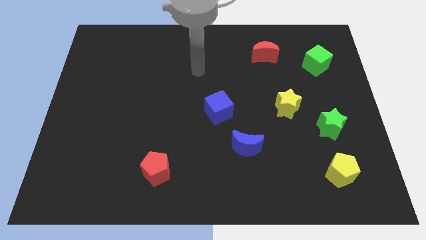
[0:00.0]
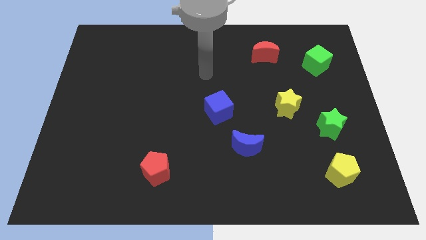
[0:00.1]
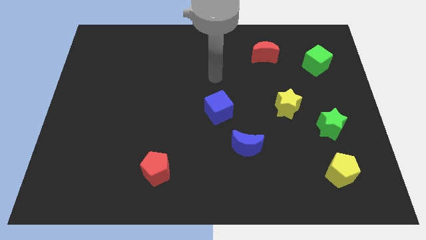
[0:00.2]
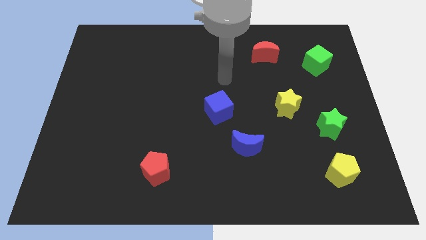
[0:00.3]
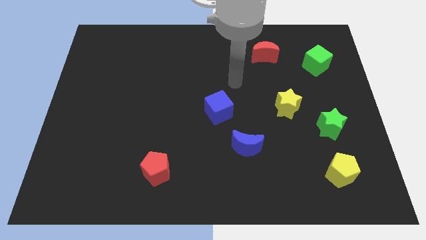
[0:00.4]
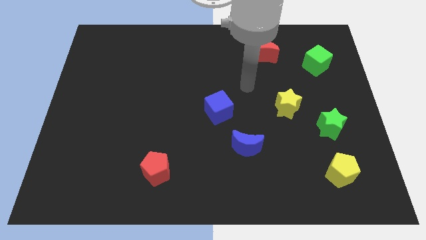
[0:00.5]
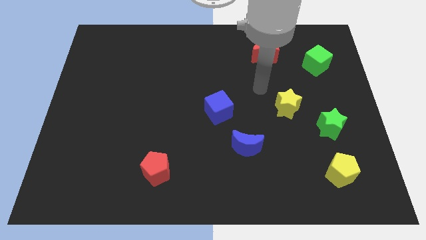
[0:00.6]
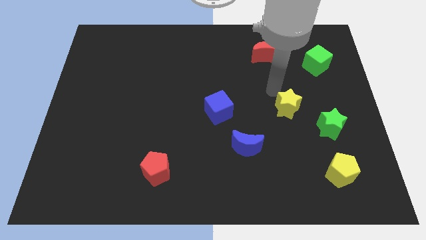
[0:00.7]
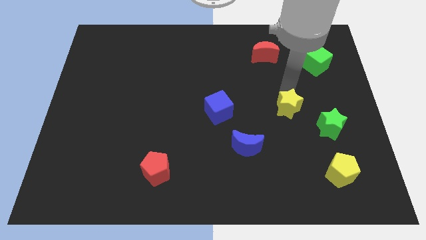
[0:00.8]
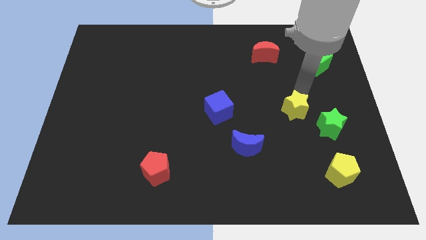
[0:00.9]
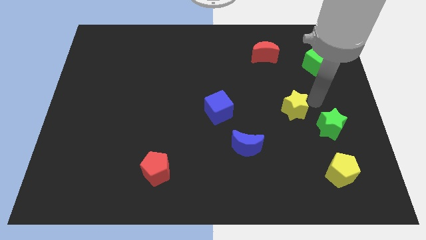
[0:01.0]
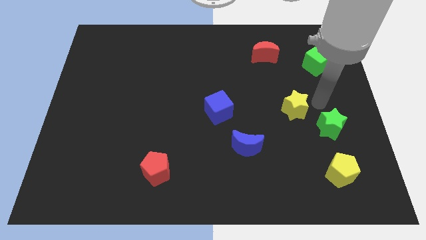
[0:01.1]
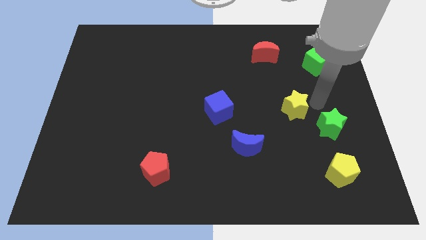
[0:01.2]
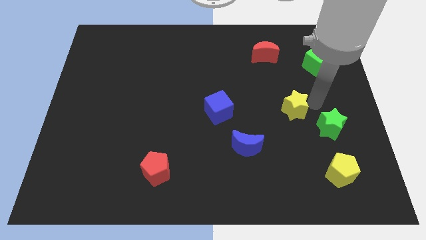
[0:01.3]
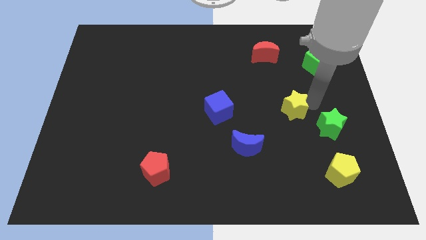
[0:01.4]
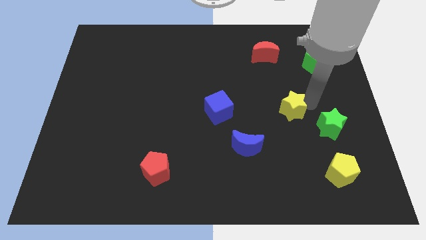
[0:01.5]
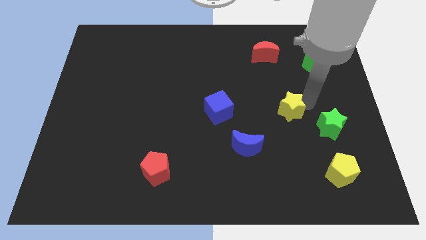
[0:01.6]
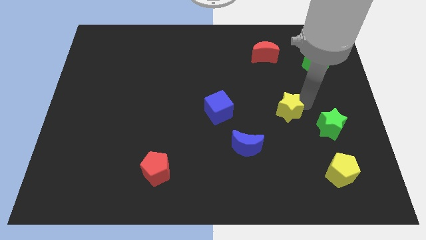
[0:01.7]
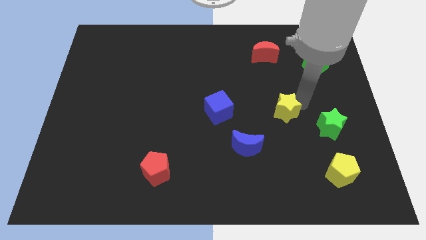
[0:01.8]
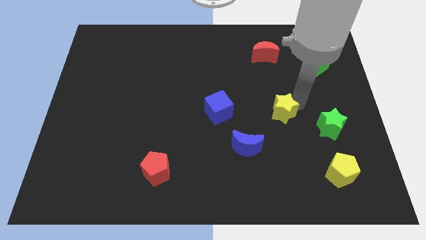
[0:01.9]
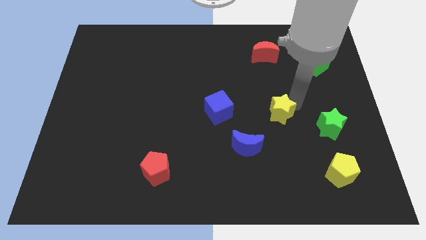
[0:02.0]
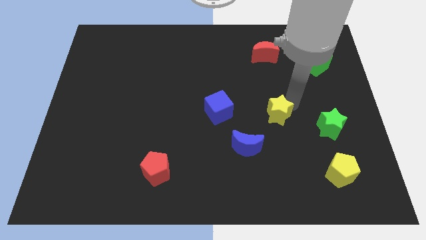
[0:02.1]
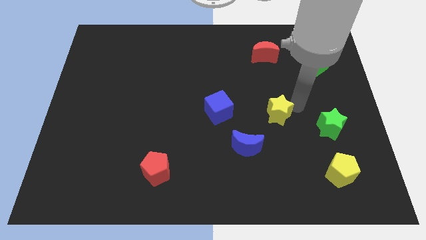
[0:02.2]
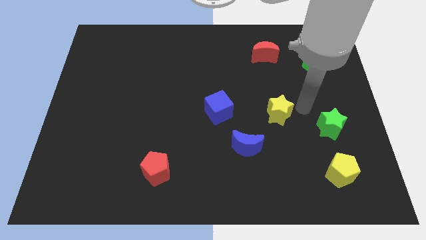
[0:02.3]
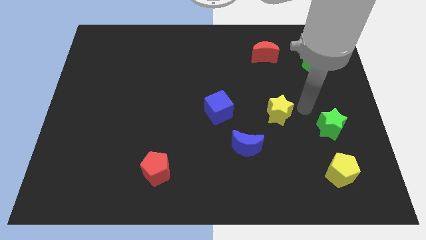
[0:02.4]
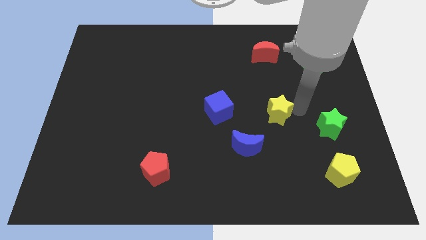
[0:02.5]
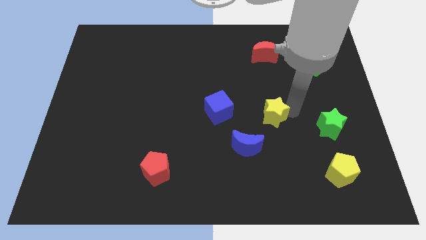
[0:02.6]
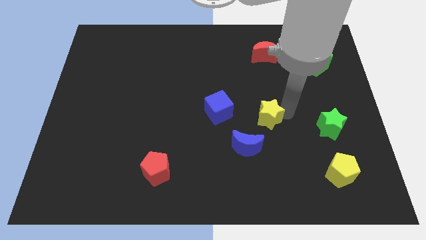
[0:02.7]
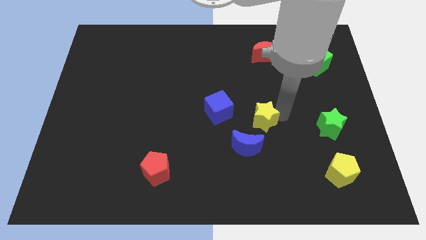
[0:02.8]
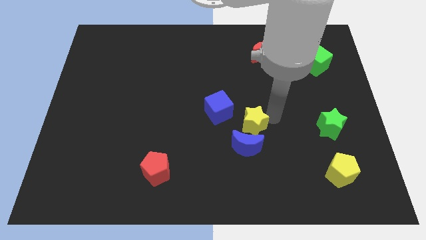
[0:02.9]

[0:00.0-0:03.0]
slightly move the yellow star downwards and to the left

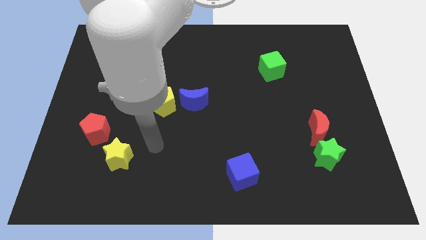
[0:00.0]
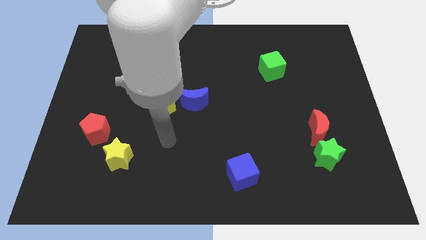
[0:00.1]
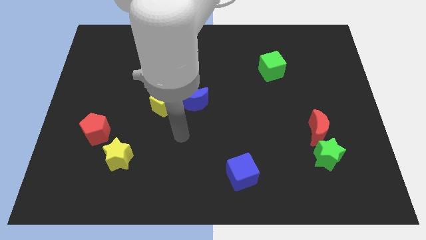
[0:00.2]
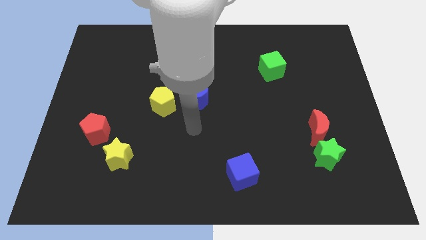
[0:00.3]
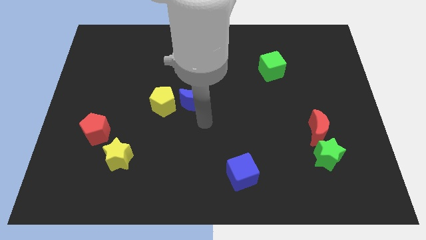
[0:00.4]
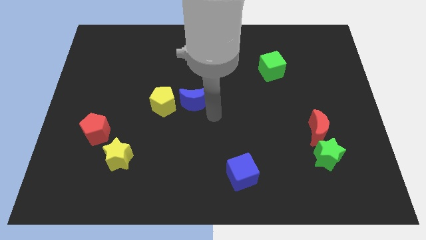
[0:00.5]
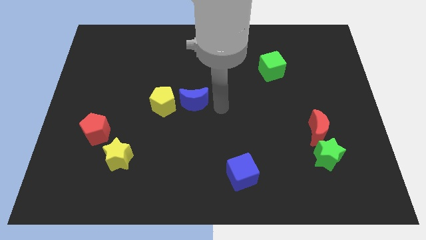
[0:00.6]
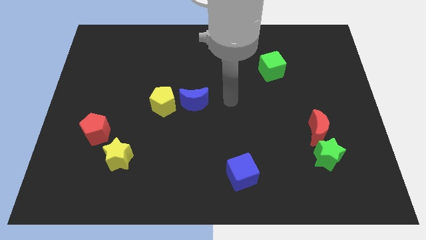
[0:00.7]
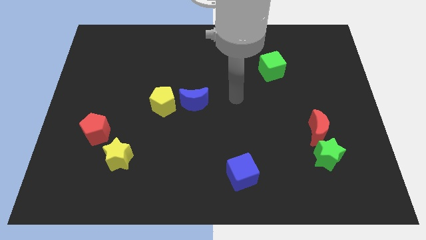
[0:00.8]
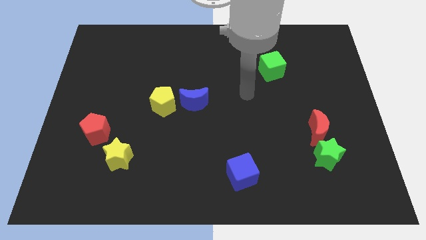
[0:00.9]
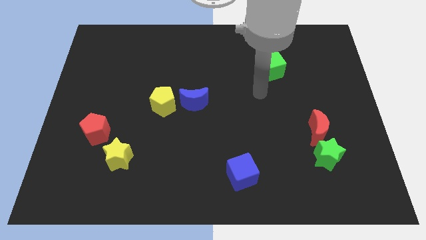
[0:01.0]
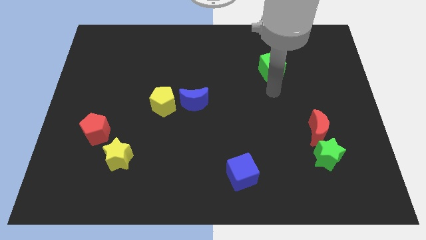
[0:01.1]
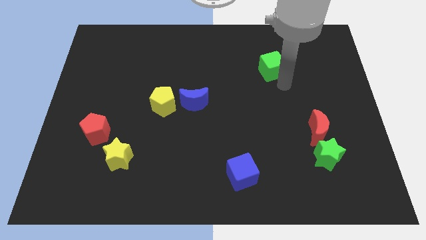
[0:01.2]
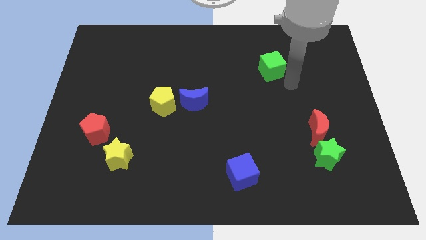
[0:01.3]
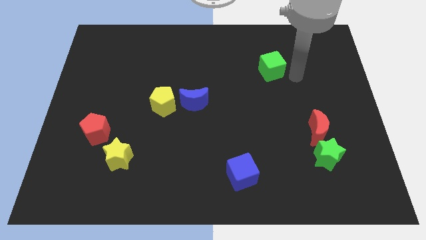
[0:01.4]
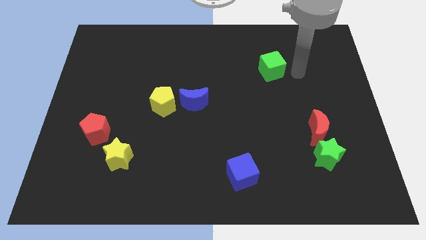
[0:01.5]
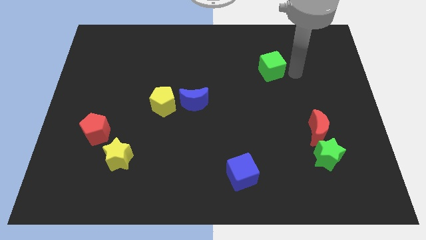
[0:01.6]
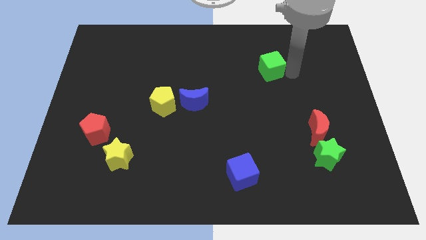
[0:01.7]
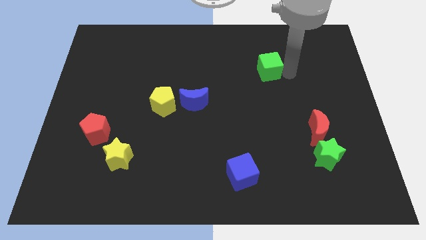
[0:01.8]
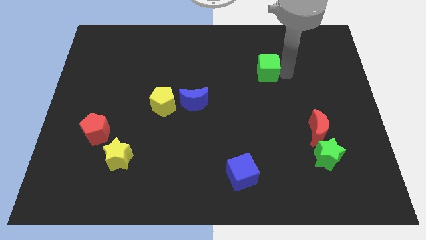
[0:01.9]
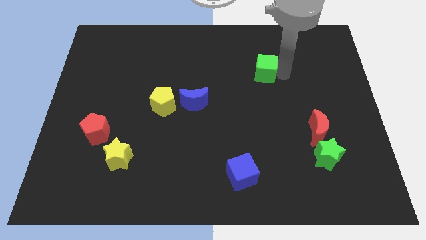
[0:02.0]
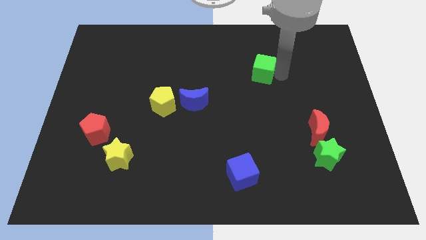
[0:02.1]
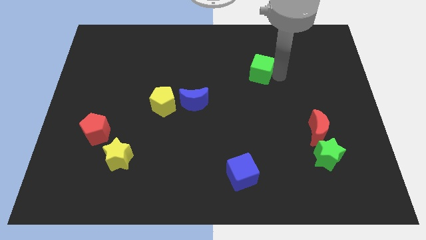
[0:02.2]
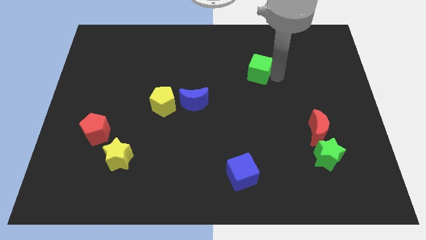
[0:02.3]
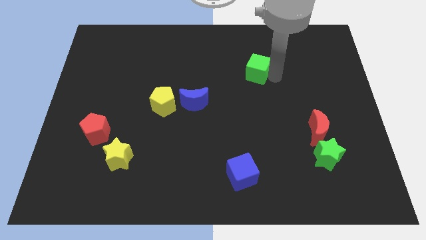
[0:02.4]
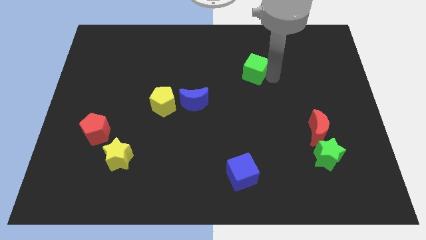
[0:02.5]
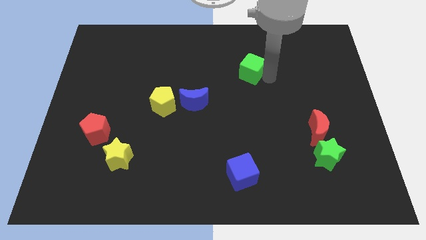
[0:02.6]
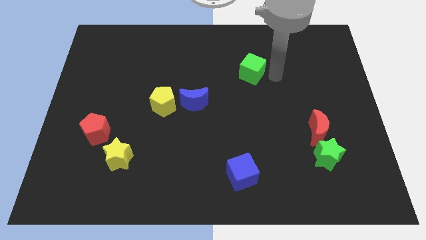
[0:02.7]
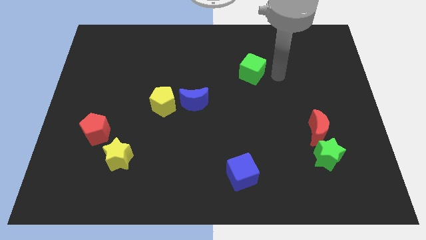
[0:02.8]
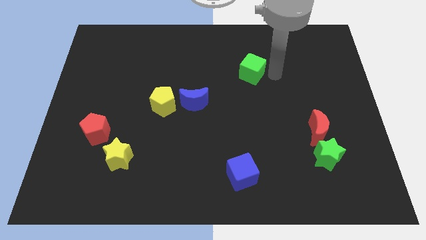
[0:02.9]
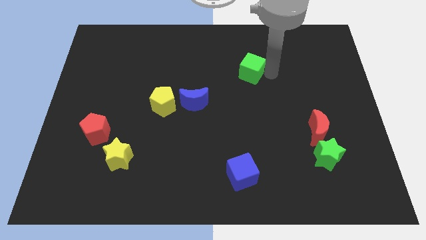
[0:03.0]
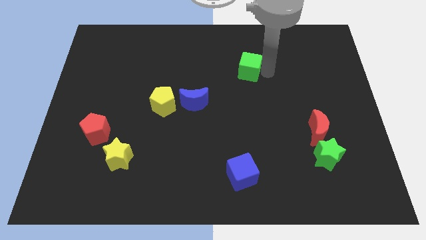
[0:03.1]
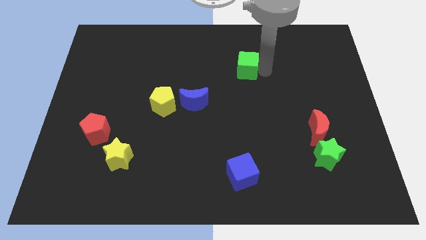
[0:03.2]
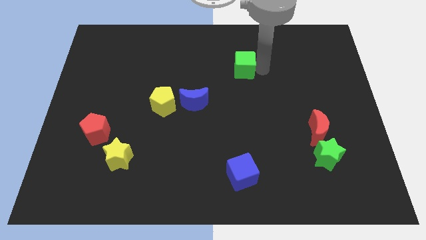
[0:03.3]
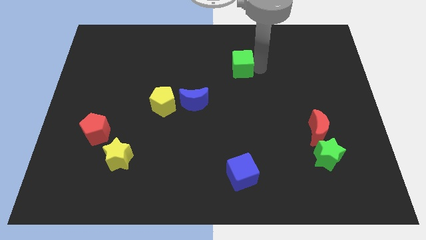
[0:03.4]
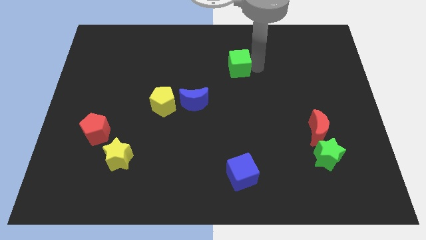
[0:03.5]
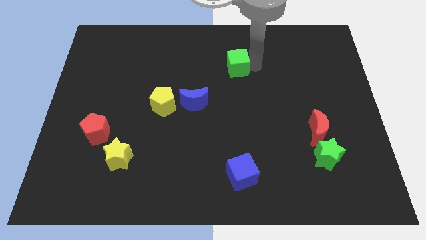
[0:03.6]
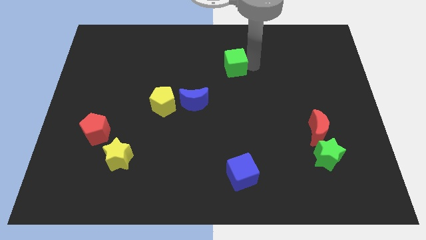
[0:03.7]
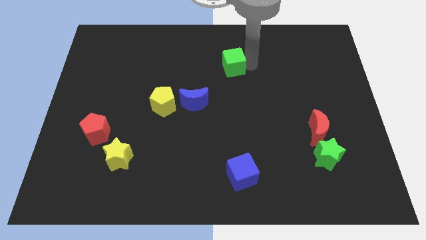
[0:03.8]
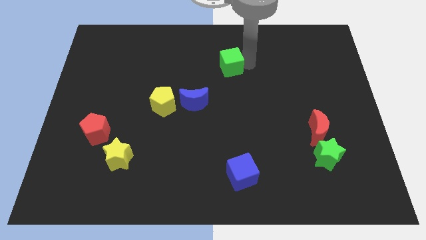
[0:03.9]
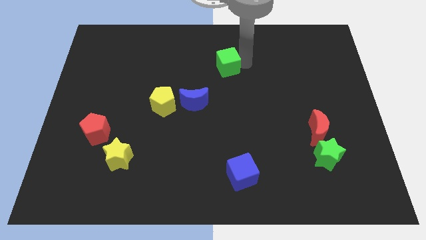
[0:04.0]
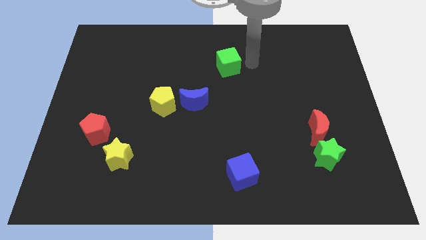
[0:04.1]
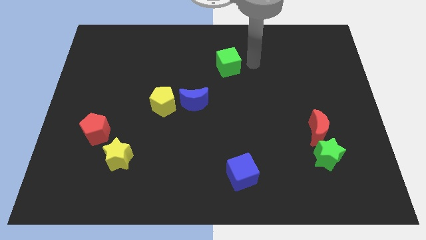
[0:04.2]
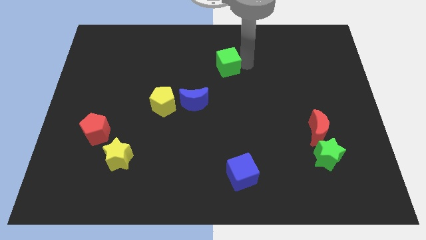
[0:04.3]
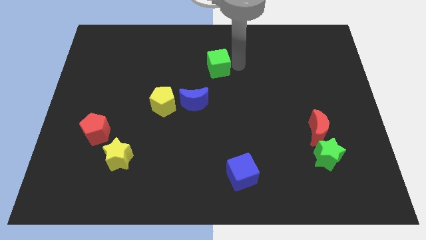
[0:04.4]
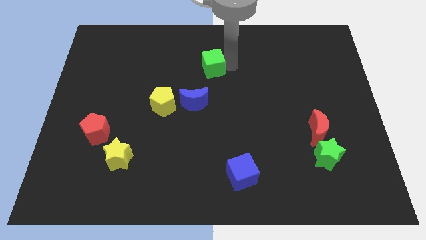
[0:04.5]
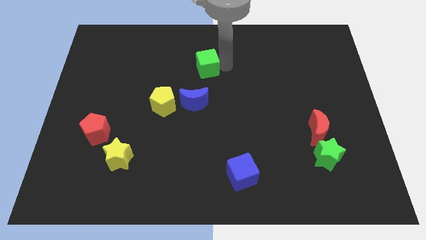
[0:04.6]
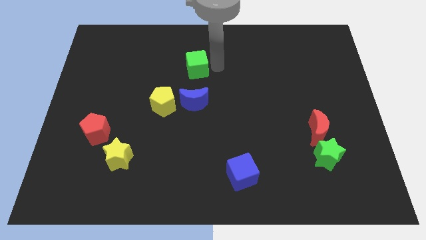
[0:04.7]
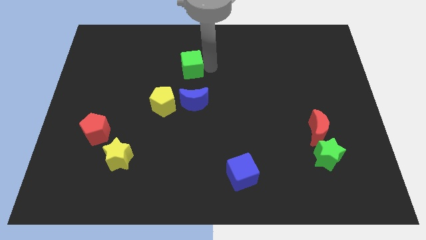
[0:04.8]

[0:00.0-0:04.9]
move the green cube left

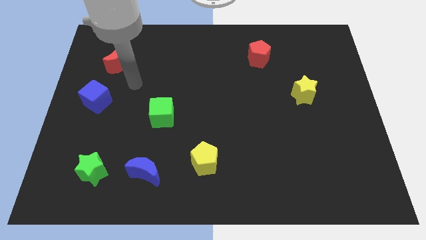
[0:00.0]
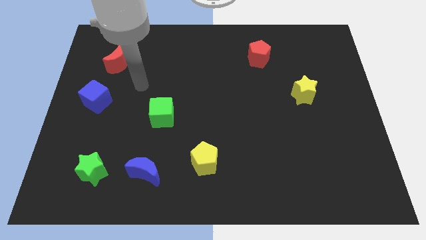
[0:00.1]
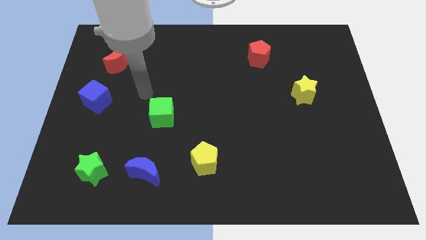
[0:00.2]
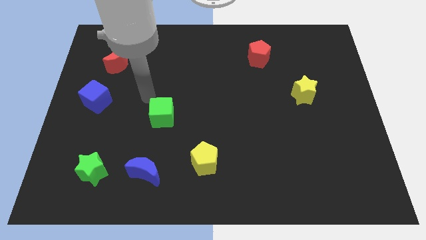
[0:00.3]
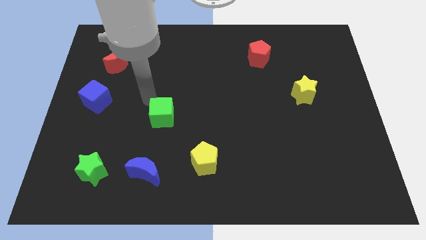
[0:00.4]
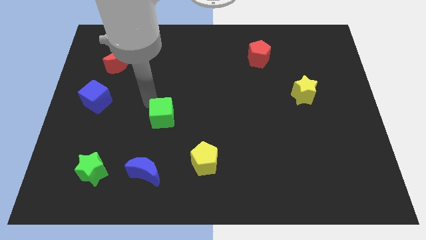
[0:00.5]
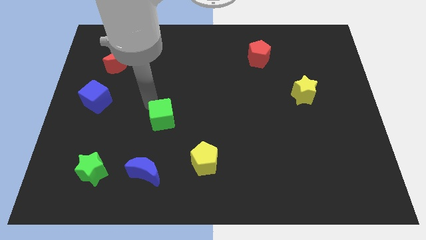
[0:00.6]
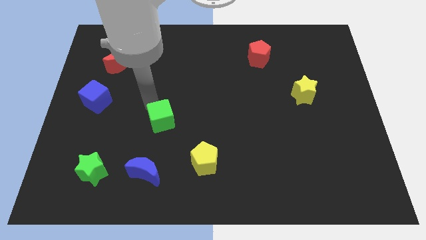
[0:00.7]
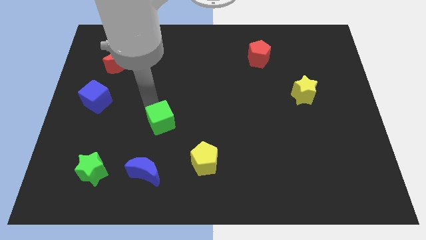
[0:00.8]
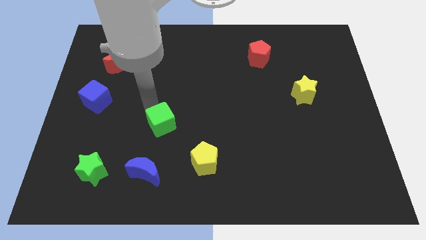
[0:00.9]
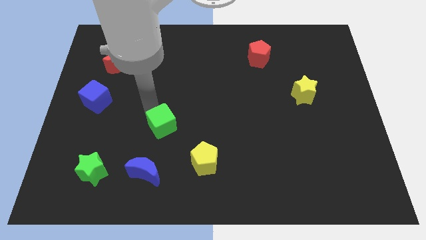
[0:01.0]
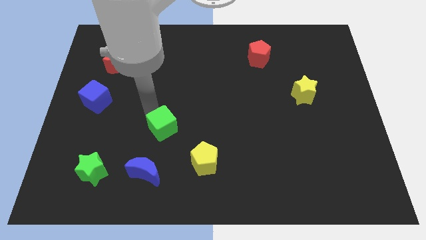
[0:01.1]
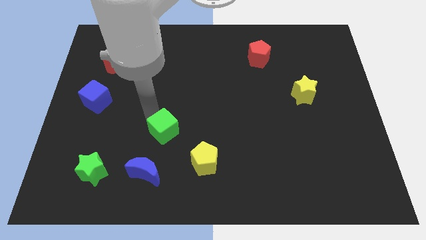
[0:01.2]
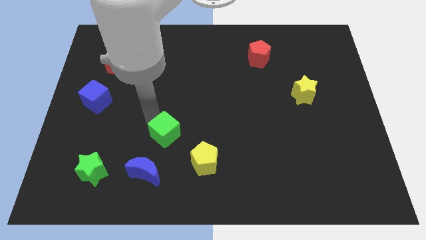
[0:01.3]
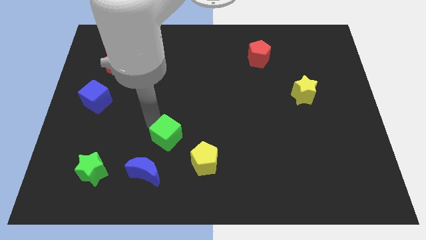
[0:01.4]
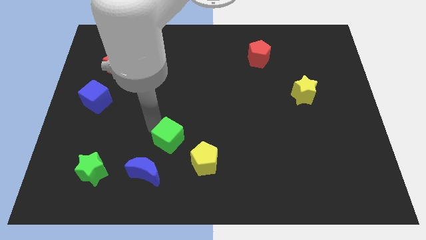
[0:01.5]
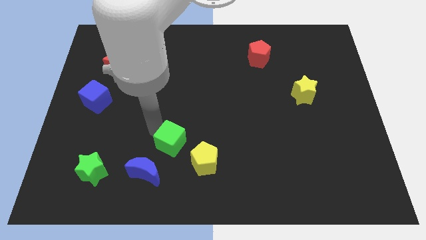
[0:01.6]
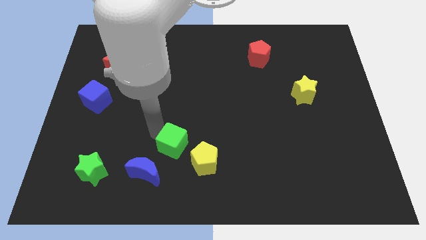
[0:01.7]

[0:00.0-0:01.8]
move the green cube a little bit downwards and right
